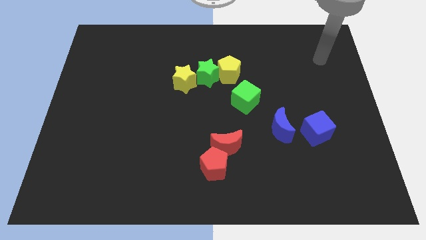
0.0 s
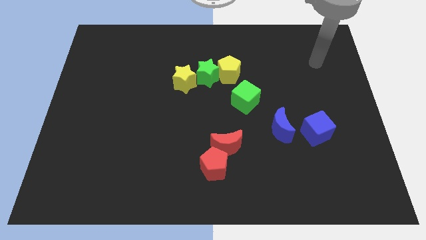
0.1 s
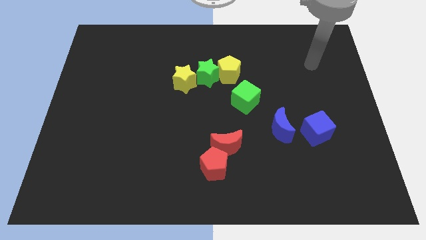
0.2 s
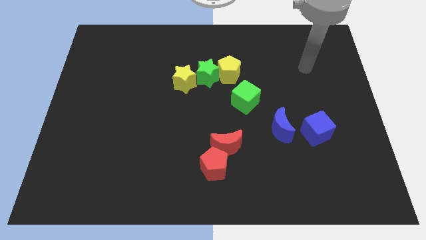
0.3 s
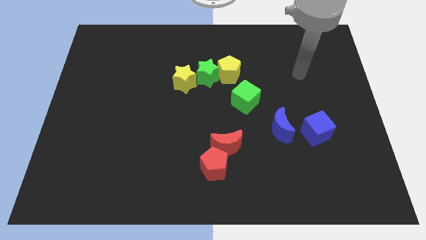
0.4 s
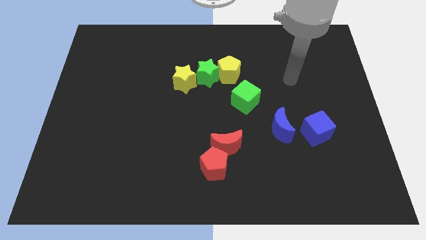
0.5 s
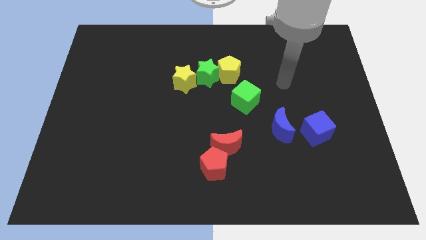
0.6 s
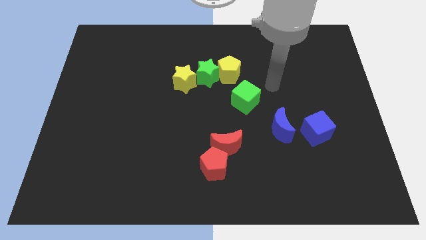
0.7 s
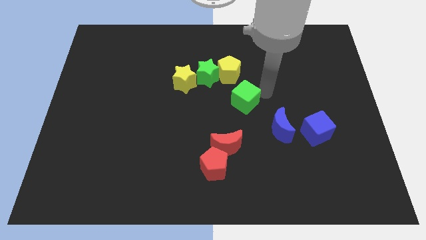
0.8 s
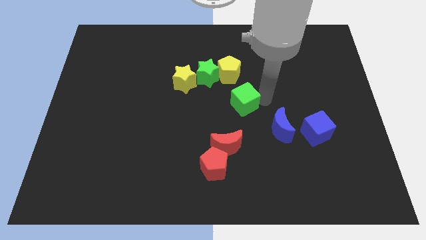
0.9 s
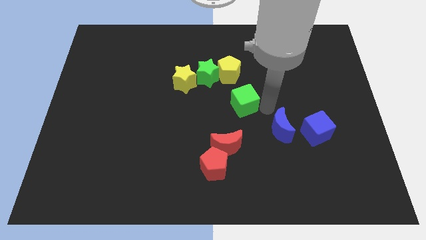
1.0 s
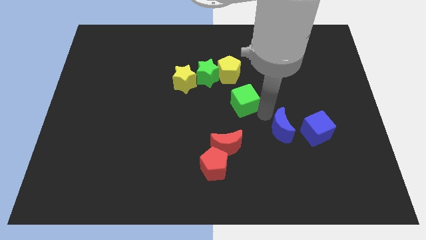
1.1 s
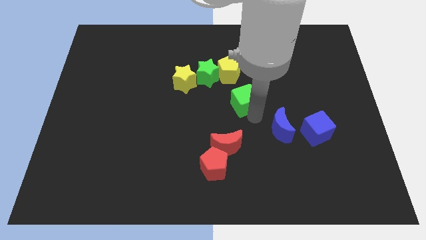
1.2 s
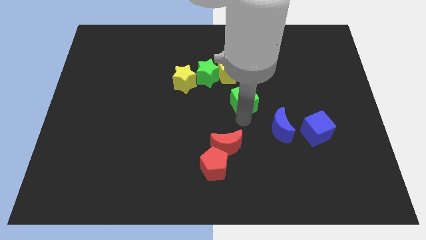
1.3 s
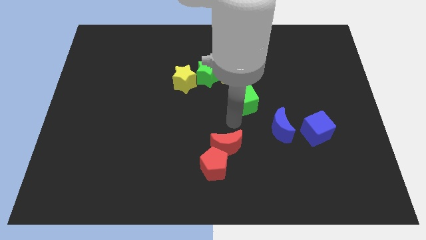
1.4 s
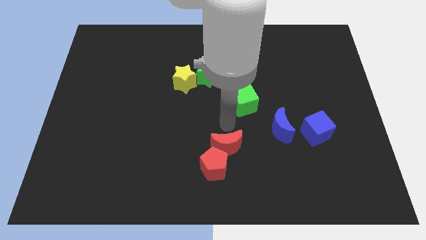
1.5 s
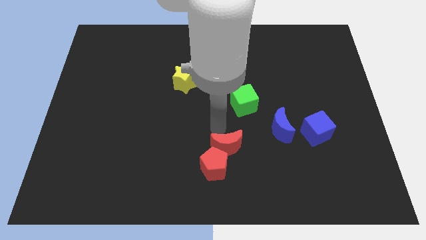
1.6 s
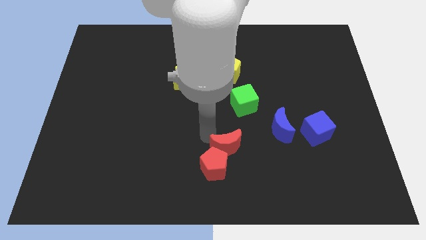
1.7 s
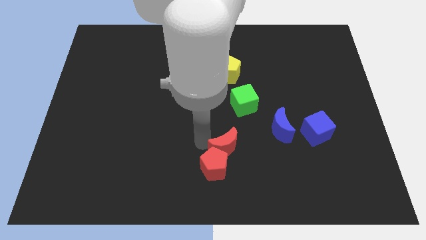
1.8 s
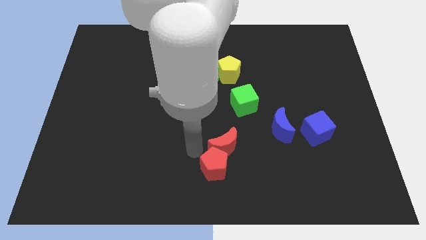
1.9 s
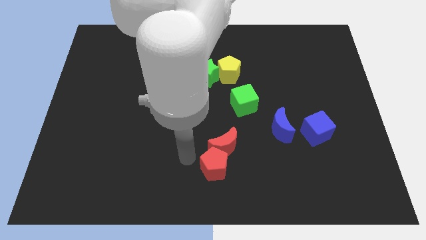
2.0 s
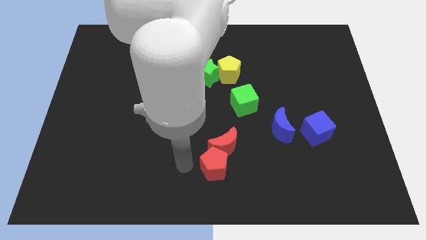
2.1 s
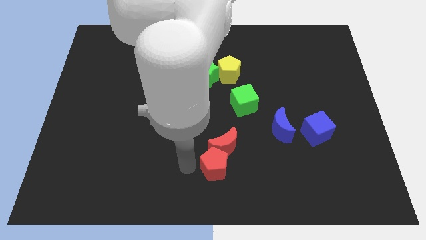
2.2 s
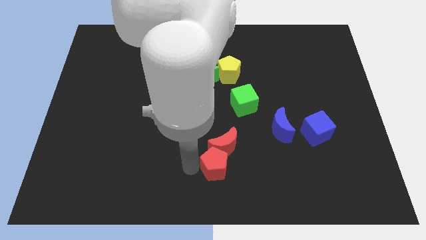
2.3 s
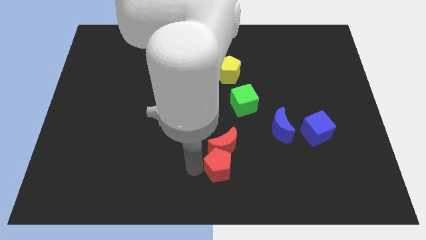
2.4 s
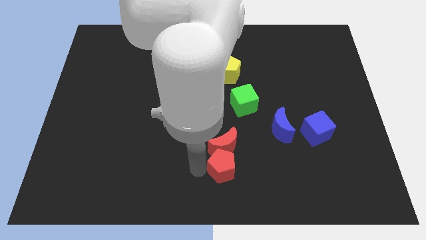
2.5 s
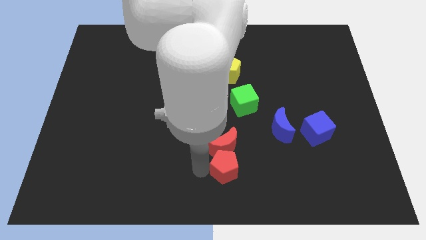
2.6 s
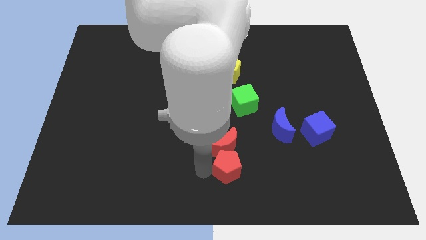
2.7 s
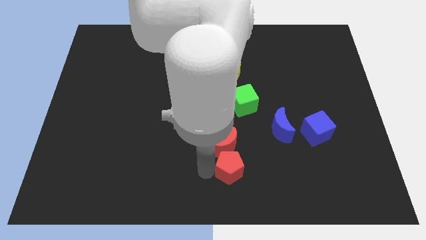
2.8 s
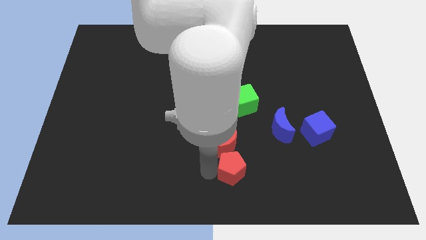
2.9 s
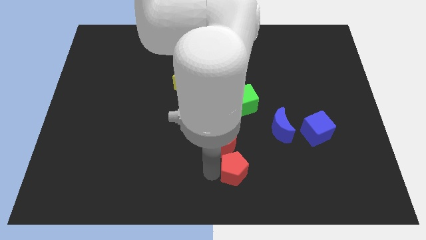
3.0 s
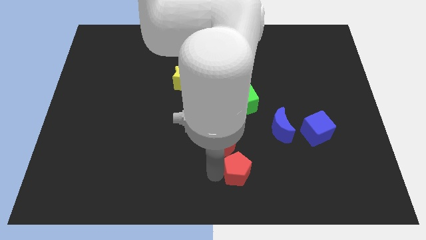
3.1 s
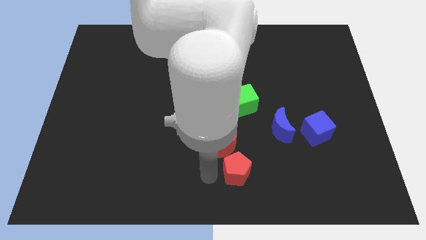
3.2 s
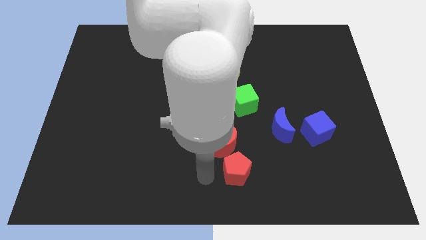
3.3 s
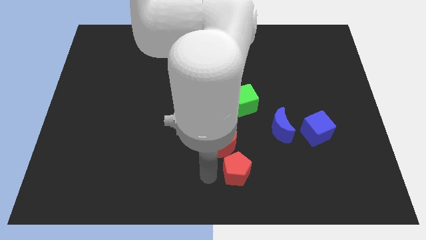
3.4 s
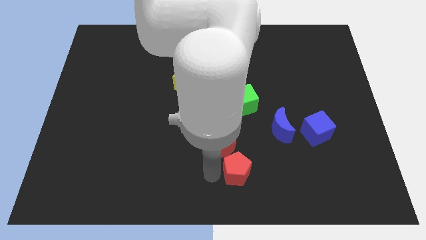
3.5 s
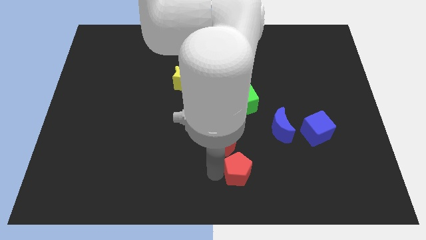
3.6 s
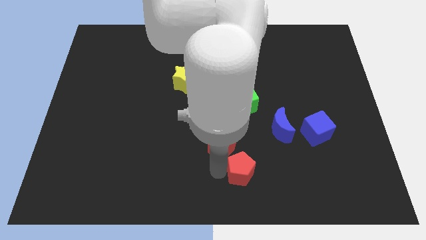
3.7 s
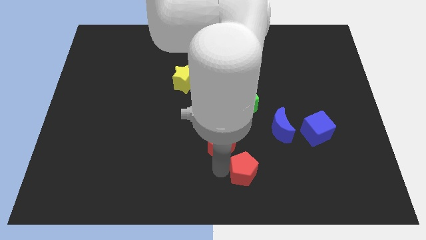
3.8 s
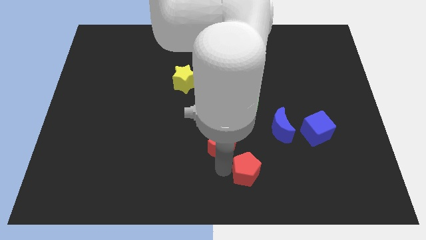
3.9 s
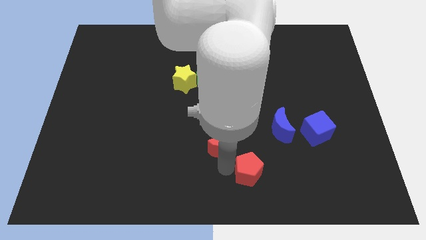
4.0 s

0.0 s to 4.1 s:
push the red pentagon right a little

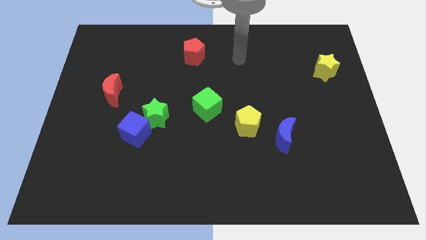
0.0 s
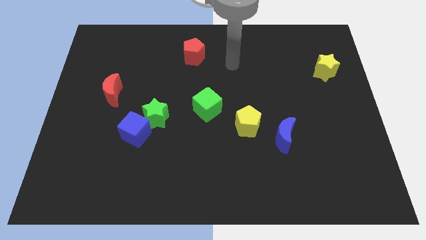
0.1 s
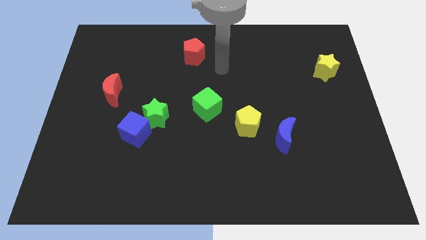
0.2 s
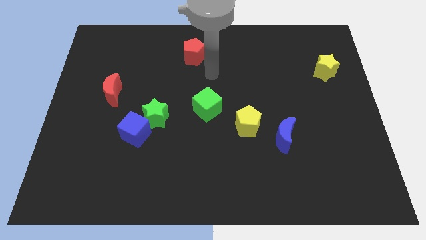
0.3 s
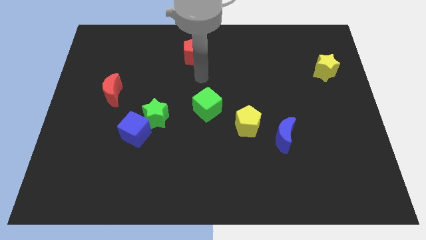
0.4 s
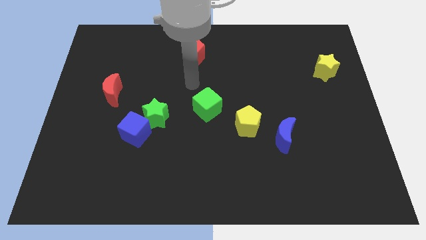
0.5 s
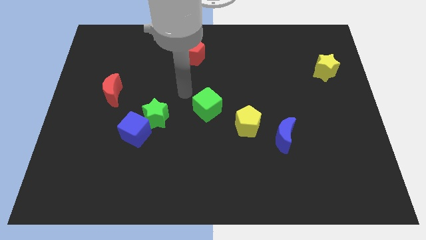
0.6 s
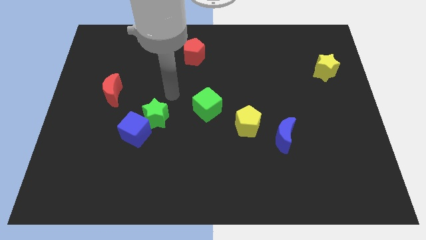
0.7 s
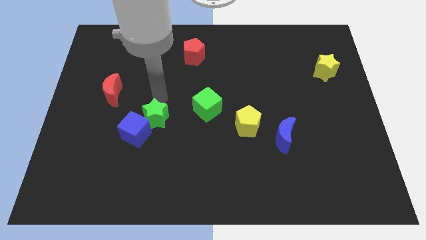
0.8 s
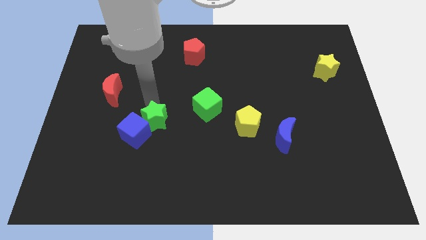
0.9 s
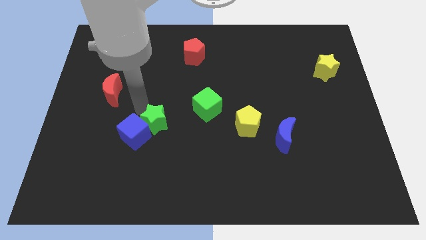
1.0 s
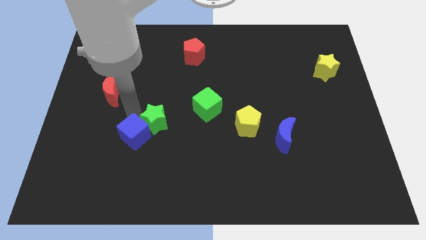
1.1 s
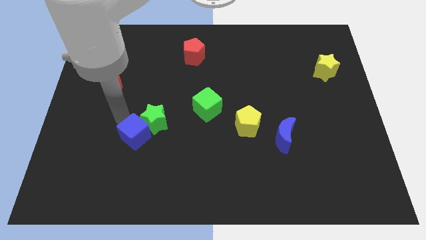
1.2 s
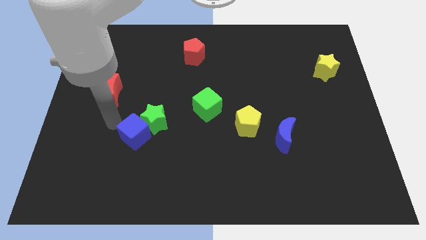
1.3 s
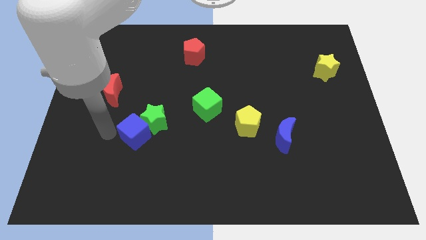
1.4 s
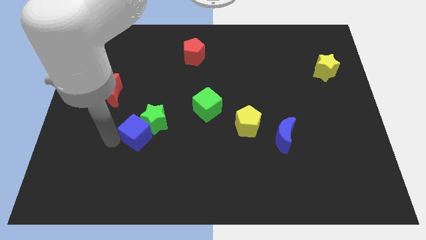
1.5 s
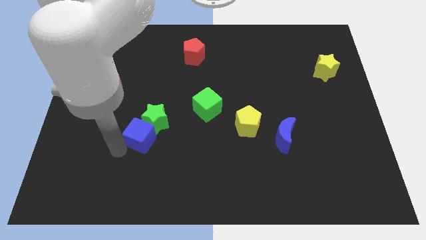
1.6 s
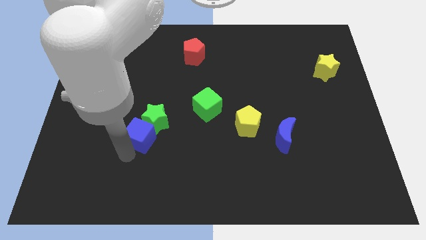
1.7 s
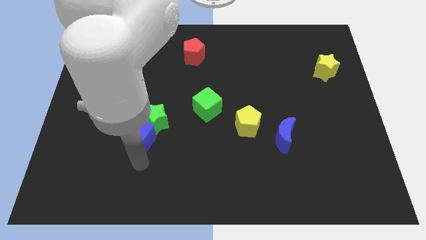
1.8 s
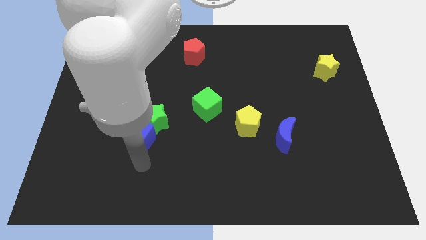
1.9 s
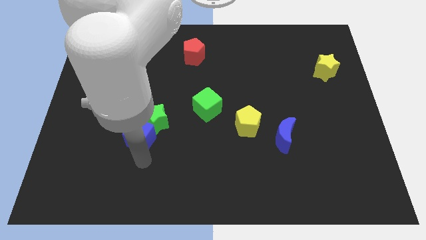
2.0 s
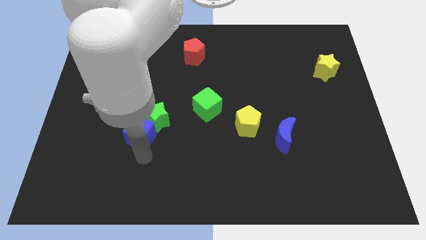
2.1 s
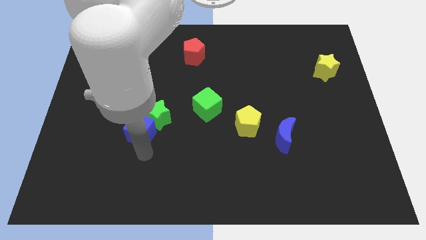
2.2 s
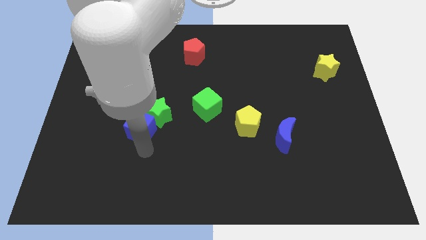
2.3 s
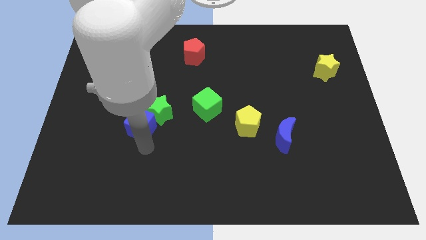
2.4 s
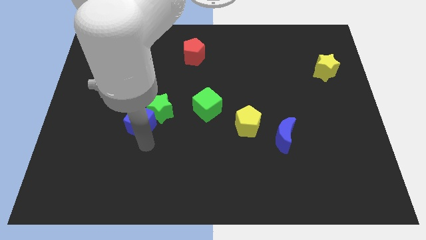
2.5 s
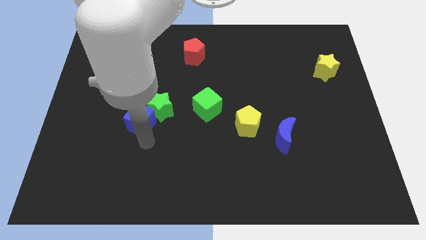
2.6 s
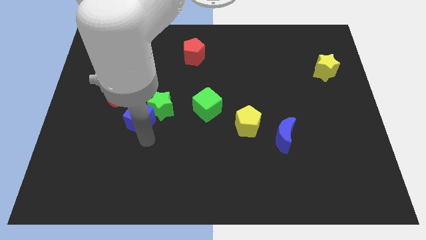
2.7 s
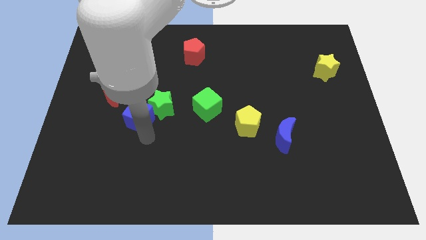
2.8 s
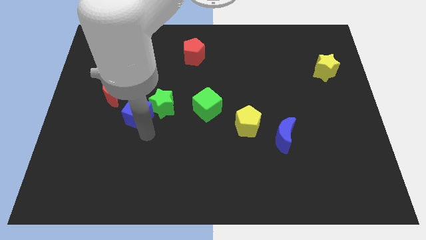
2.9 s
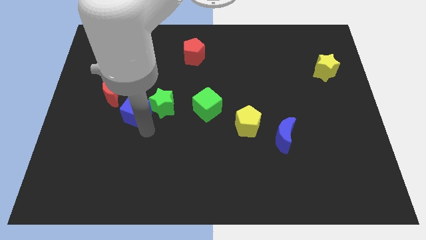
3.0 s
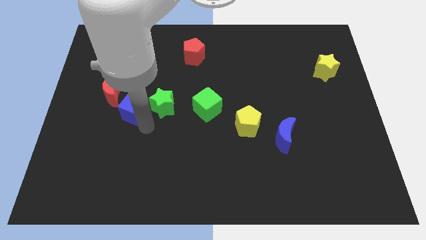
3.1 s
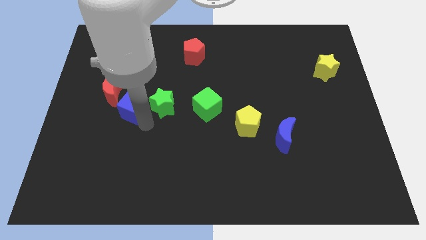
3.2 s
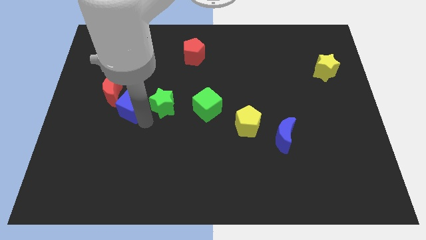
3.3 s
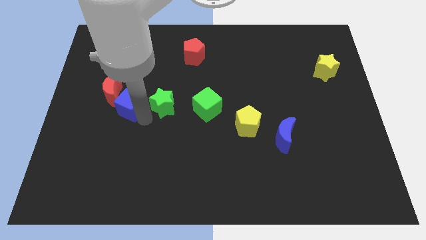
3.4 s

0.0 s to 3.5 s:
slightly push the blue cube up

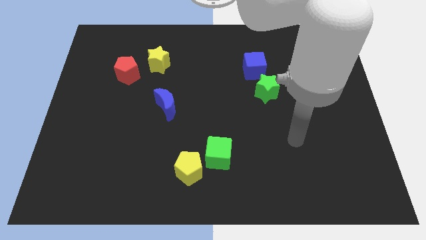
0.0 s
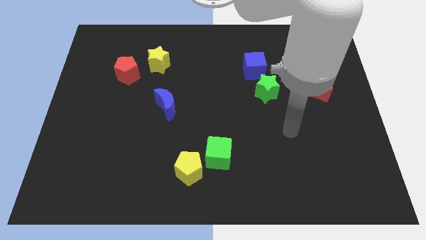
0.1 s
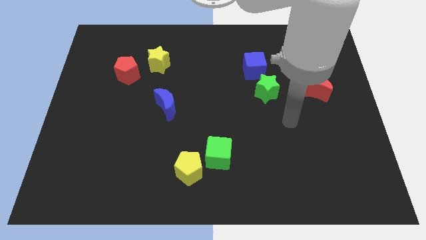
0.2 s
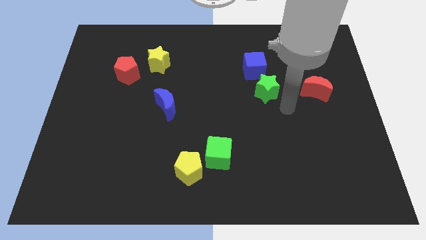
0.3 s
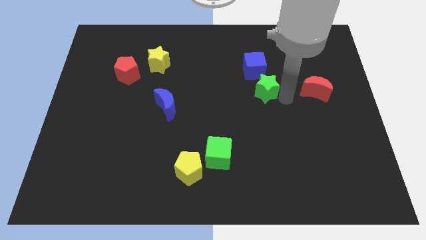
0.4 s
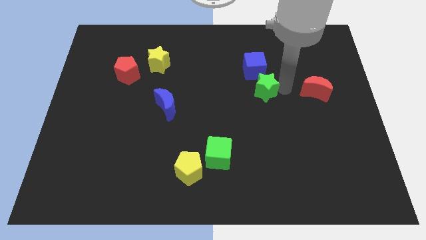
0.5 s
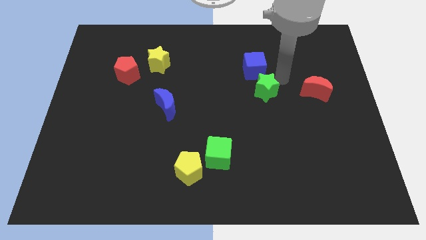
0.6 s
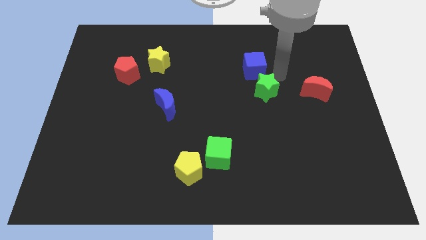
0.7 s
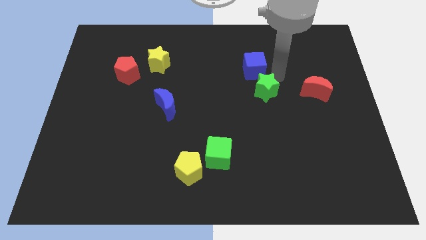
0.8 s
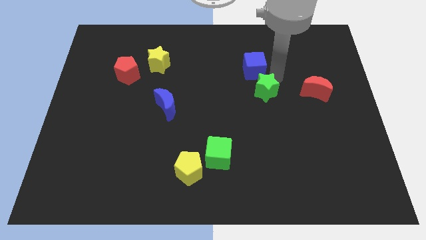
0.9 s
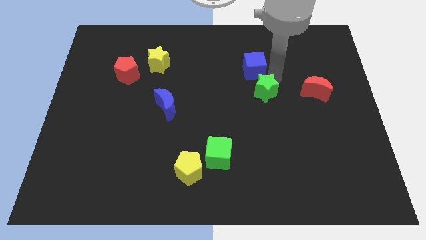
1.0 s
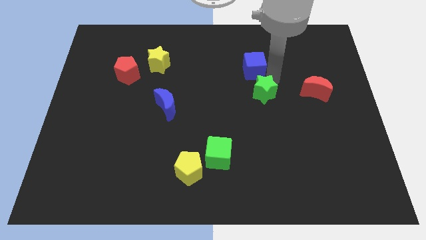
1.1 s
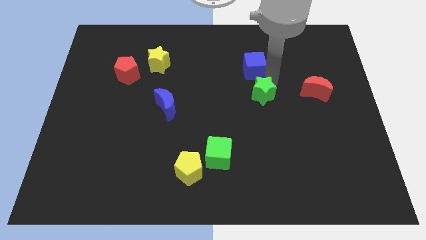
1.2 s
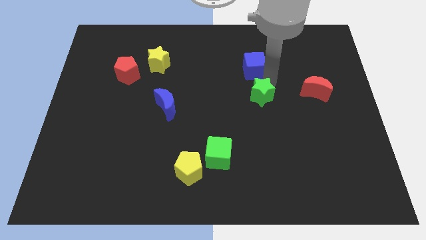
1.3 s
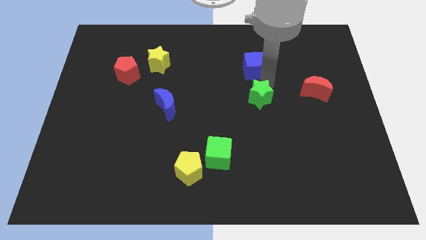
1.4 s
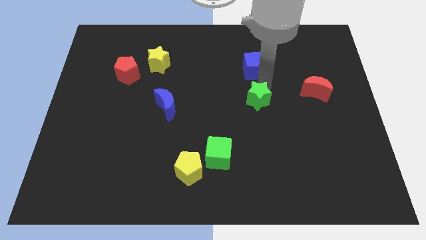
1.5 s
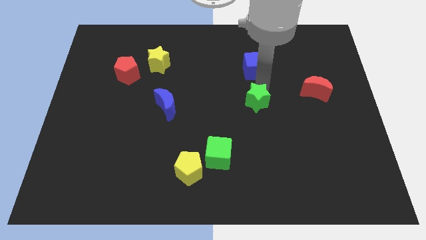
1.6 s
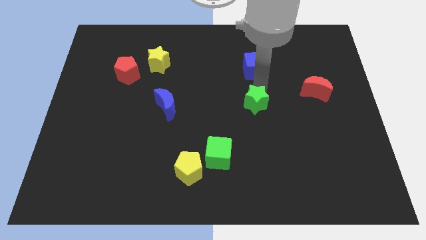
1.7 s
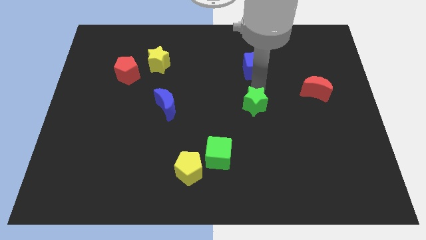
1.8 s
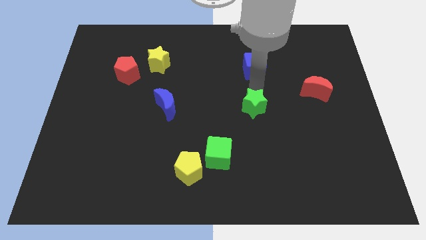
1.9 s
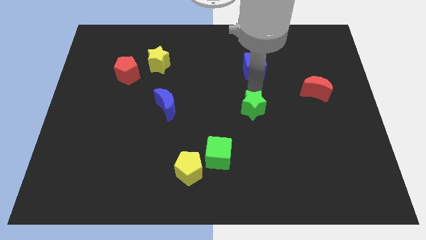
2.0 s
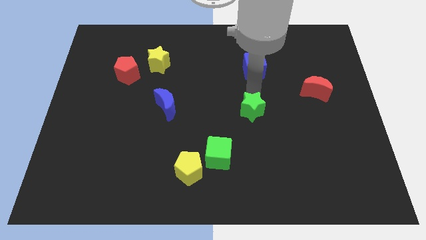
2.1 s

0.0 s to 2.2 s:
push the green star downwards and left somewhat
